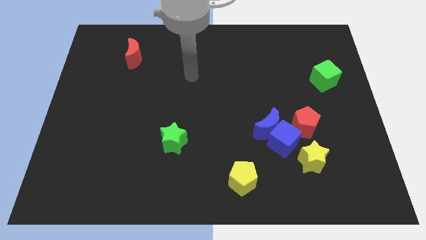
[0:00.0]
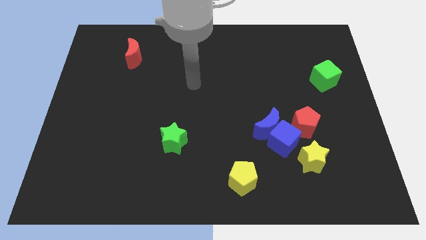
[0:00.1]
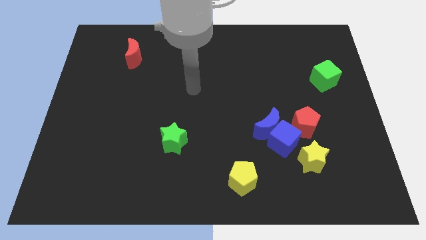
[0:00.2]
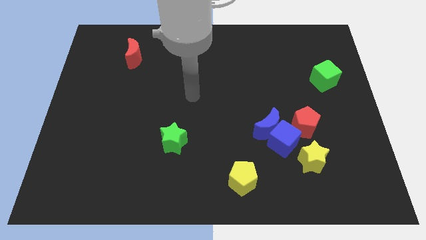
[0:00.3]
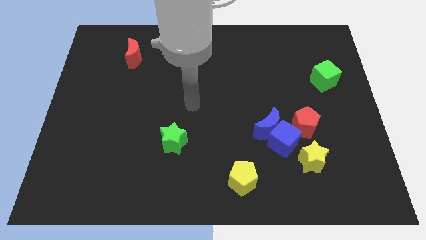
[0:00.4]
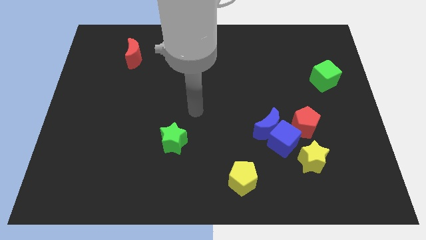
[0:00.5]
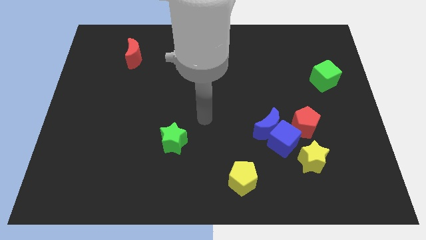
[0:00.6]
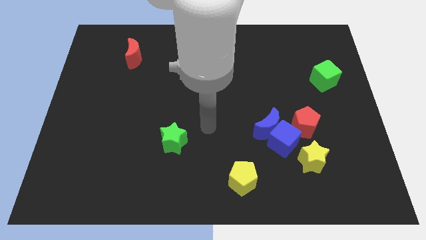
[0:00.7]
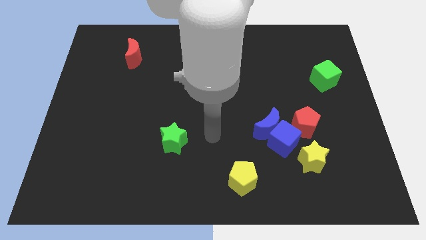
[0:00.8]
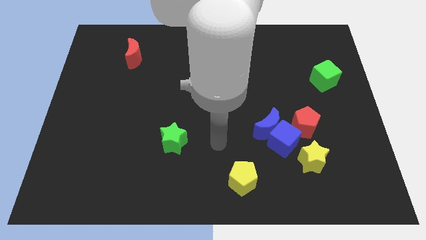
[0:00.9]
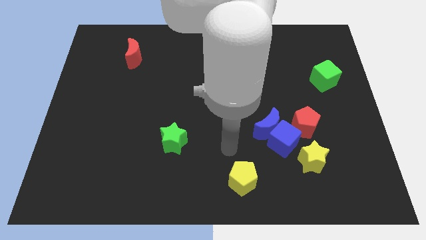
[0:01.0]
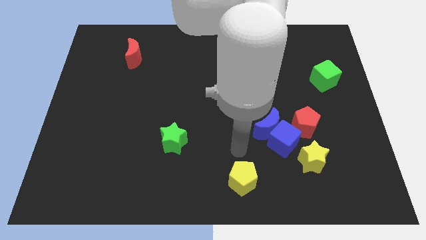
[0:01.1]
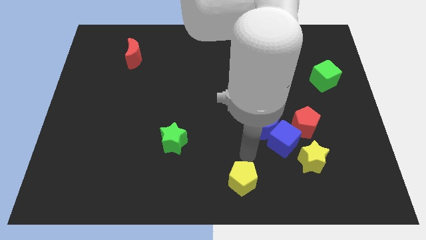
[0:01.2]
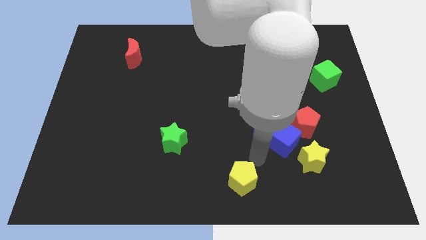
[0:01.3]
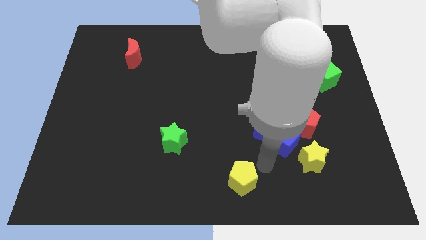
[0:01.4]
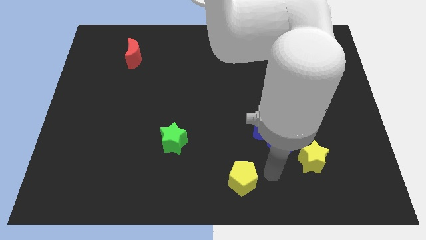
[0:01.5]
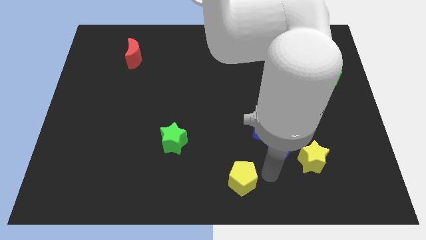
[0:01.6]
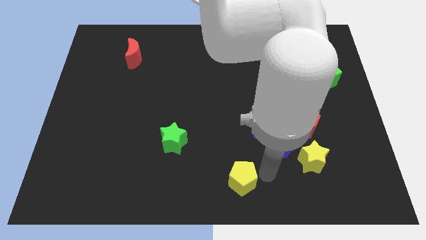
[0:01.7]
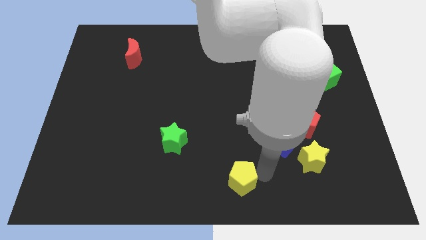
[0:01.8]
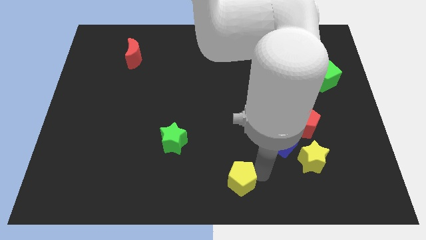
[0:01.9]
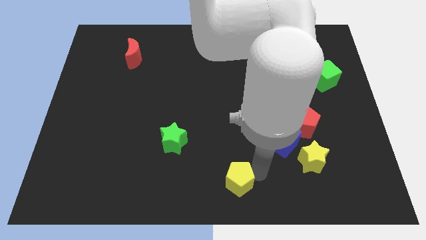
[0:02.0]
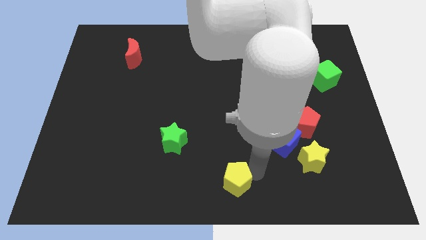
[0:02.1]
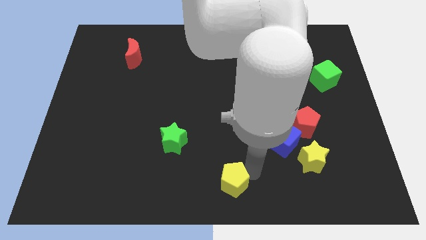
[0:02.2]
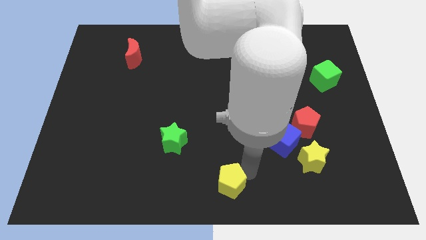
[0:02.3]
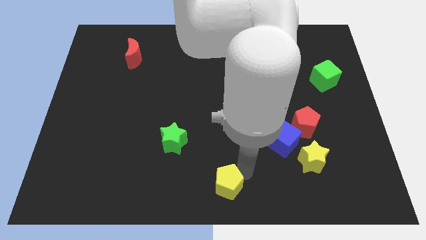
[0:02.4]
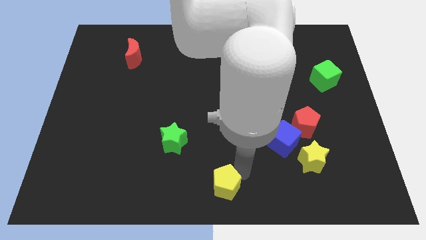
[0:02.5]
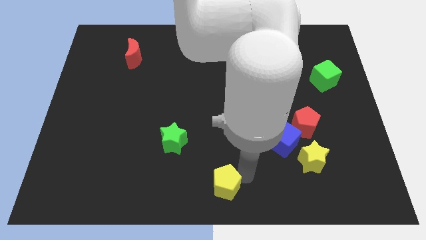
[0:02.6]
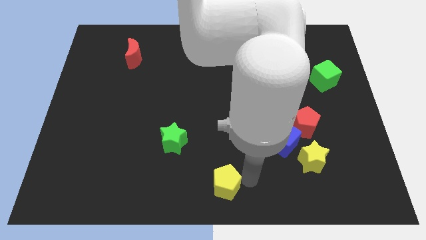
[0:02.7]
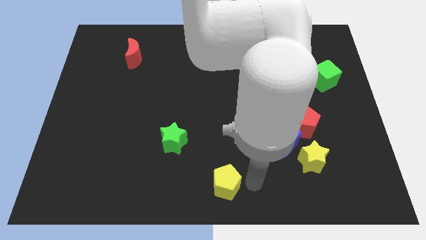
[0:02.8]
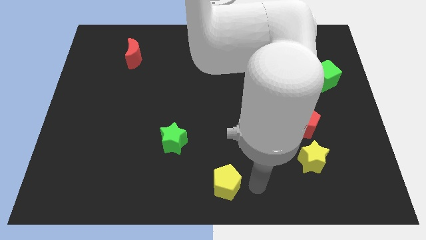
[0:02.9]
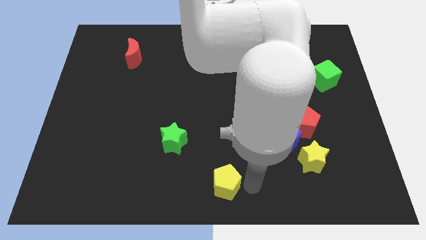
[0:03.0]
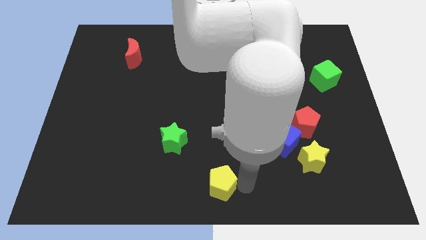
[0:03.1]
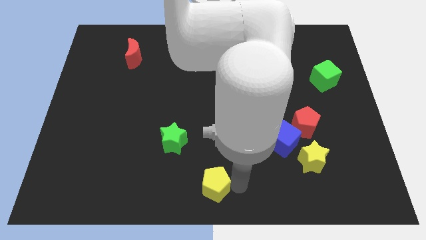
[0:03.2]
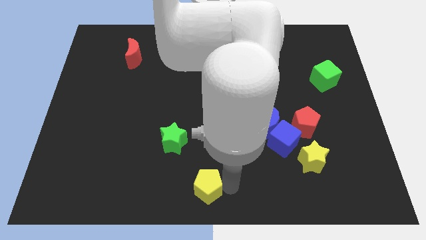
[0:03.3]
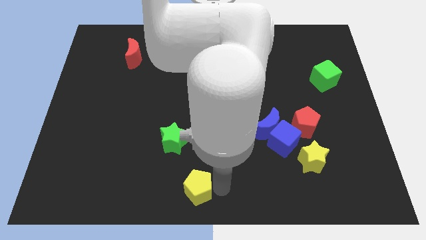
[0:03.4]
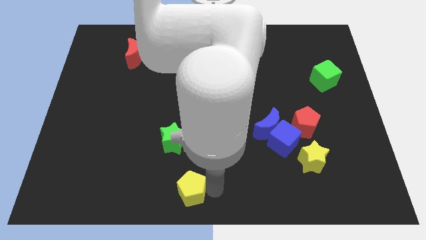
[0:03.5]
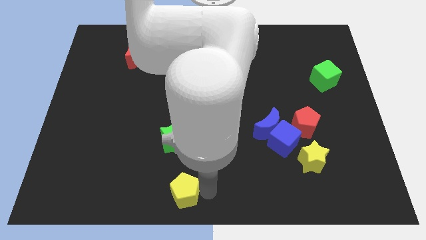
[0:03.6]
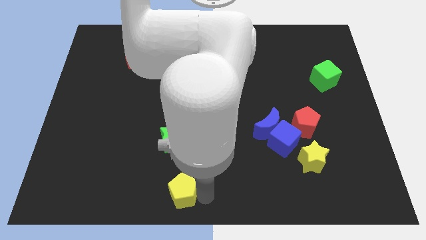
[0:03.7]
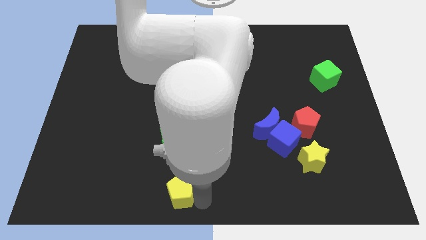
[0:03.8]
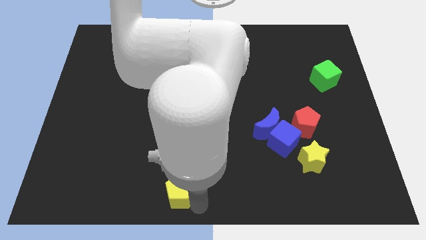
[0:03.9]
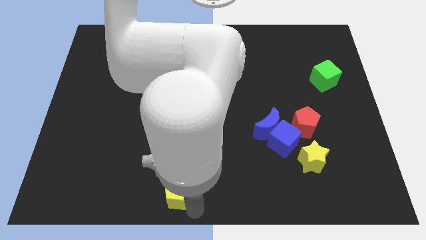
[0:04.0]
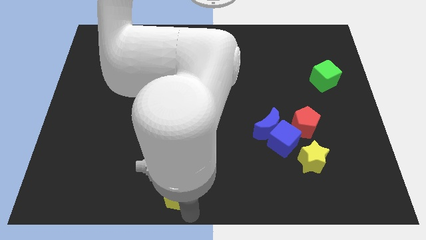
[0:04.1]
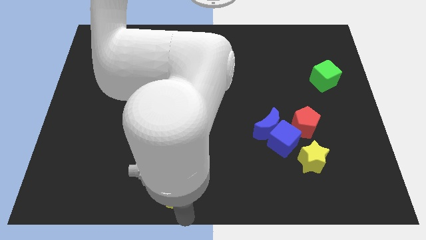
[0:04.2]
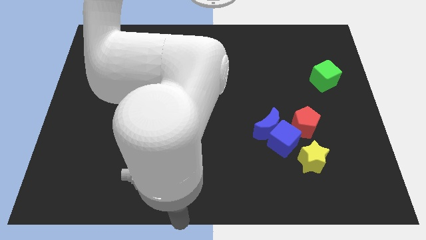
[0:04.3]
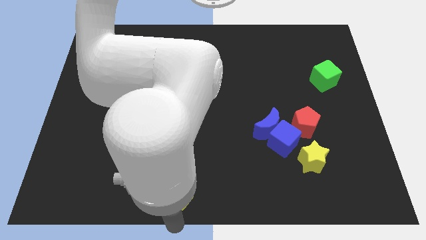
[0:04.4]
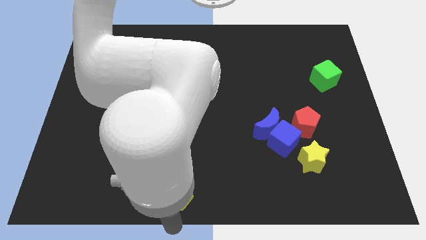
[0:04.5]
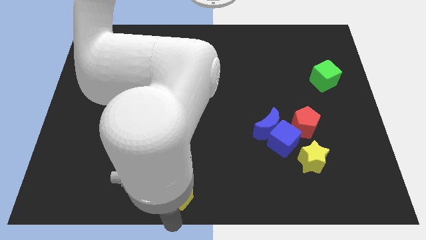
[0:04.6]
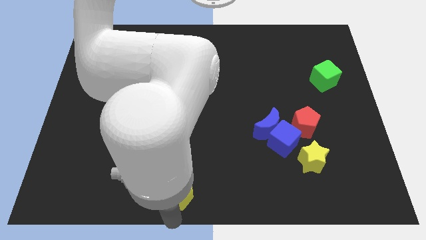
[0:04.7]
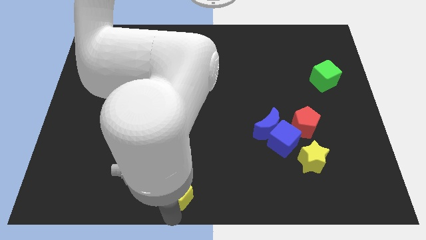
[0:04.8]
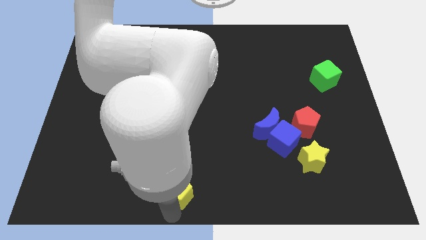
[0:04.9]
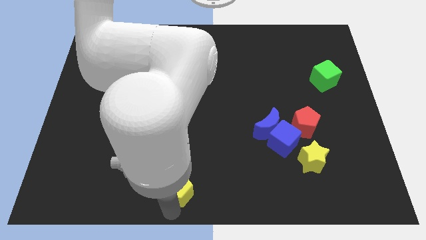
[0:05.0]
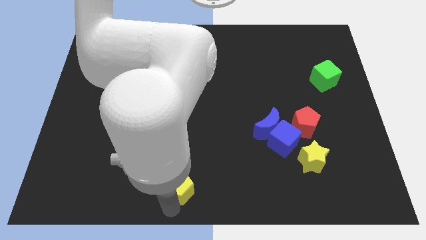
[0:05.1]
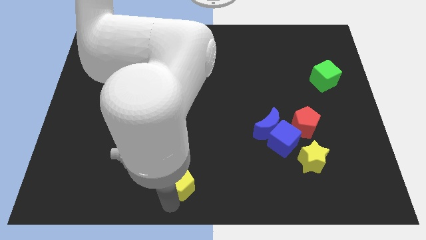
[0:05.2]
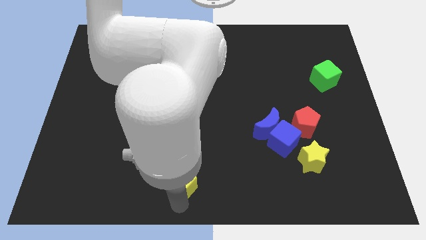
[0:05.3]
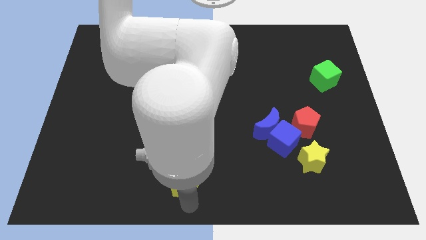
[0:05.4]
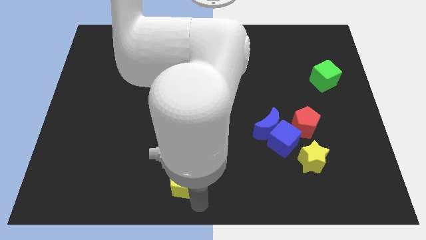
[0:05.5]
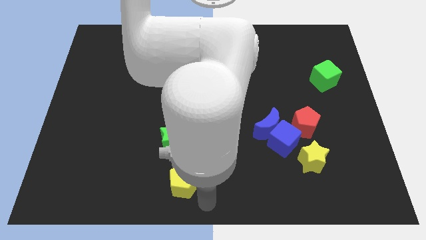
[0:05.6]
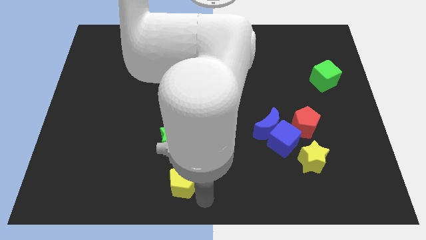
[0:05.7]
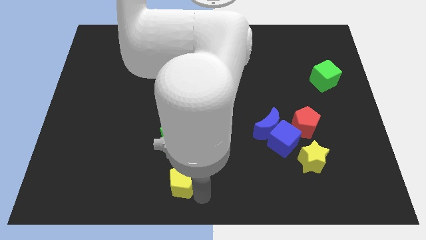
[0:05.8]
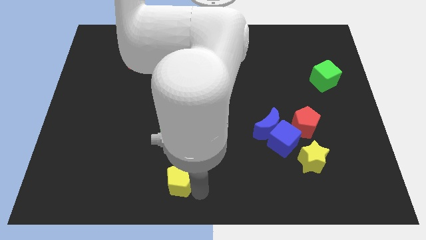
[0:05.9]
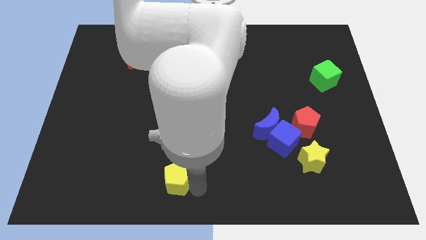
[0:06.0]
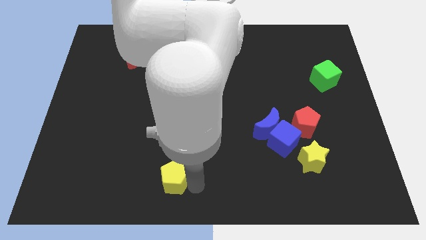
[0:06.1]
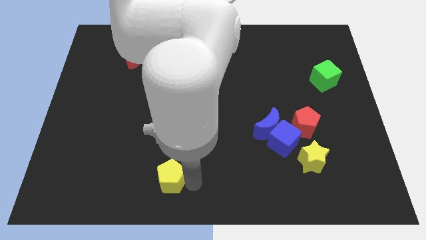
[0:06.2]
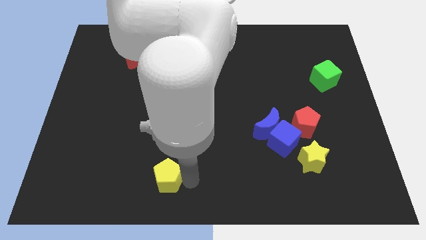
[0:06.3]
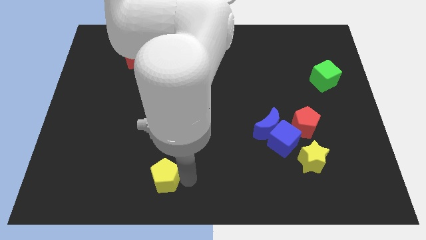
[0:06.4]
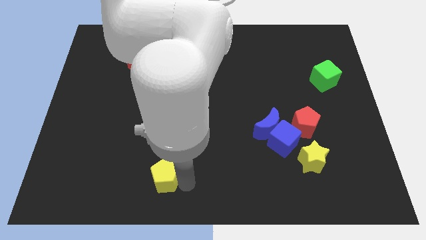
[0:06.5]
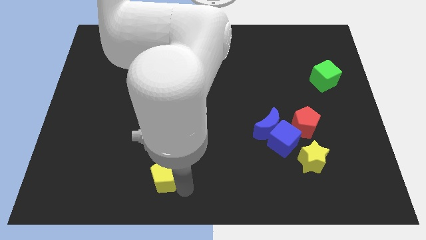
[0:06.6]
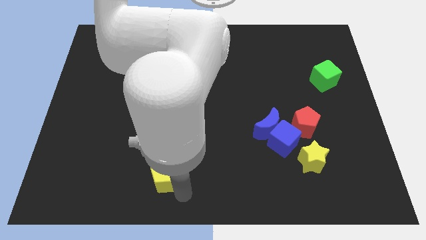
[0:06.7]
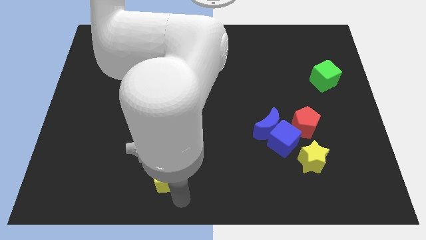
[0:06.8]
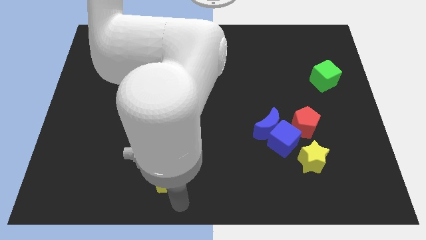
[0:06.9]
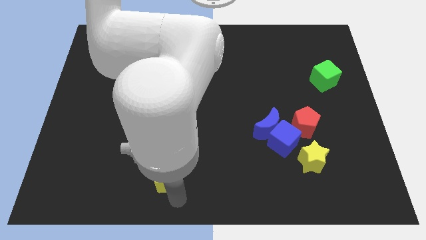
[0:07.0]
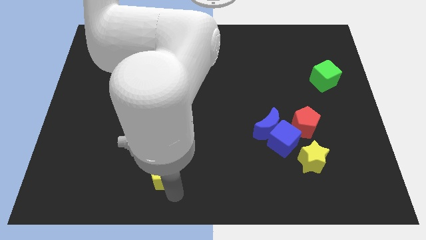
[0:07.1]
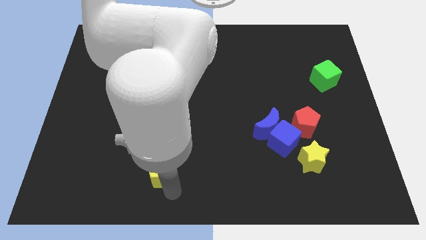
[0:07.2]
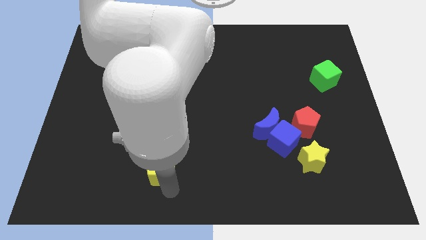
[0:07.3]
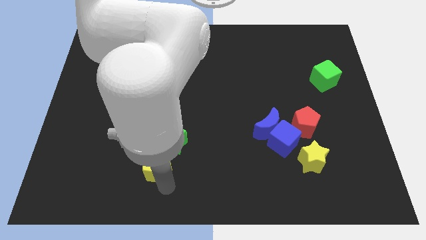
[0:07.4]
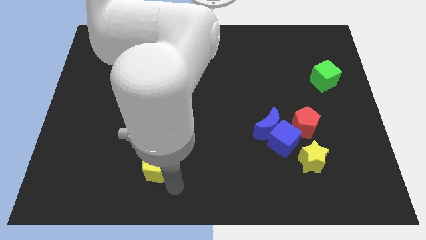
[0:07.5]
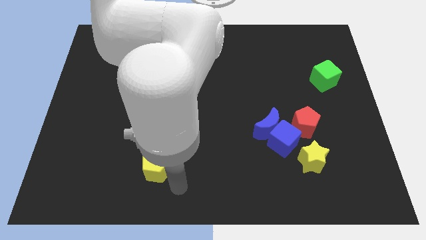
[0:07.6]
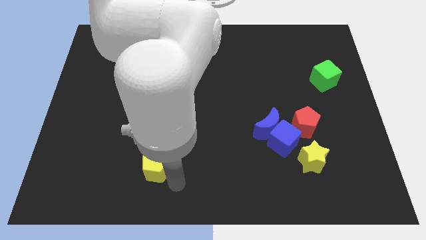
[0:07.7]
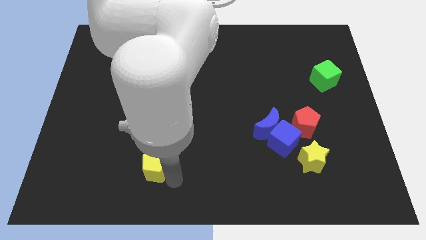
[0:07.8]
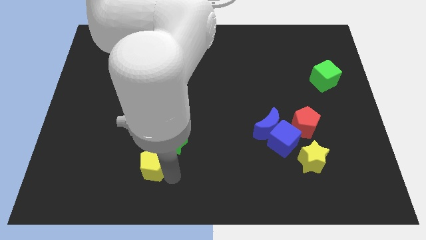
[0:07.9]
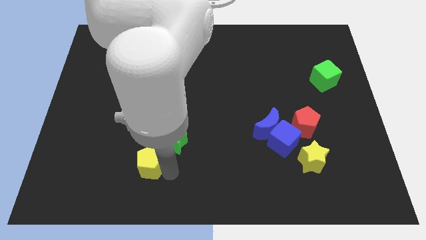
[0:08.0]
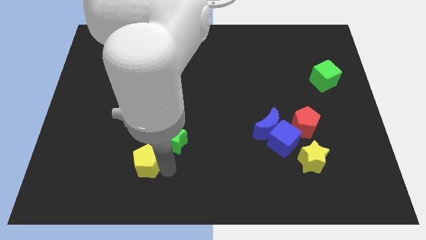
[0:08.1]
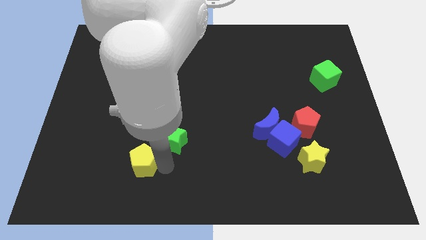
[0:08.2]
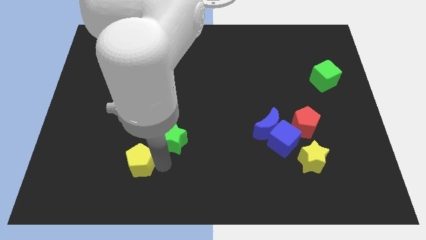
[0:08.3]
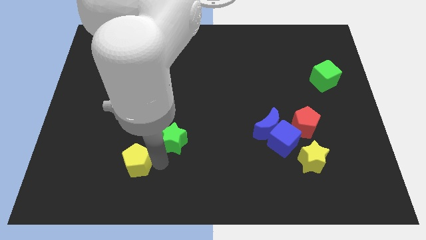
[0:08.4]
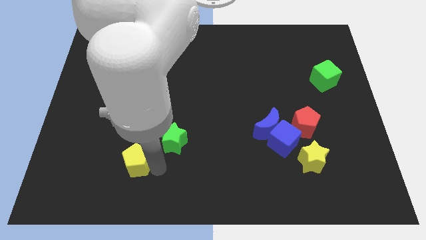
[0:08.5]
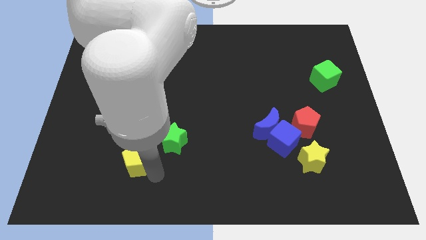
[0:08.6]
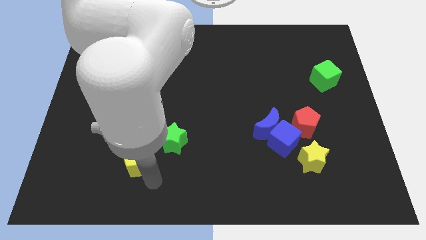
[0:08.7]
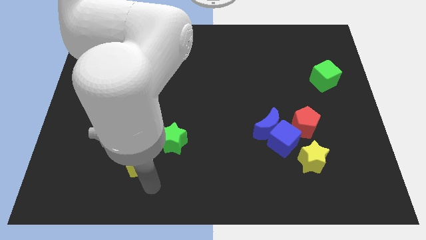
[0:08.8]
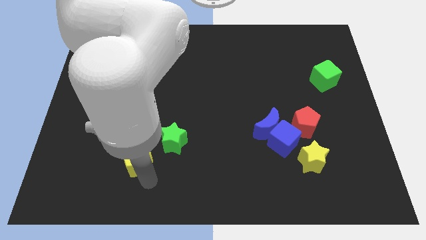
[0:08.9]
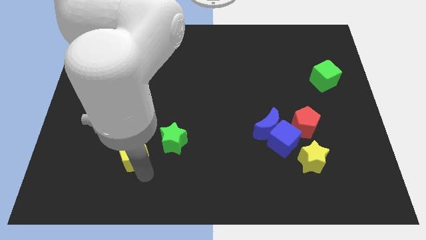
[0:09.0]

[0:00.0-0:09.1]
push the yellow pentagon just left of the green star
